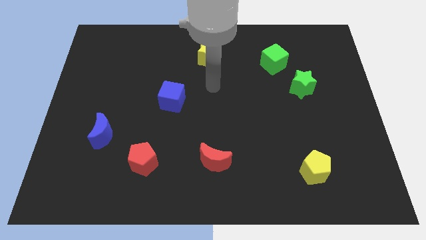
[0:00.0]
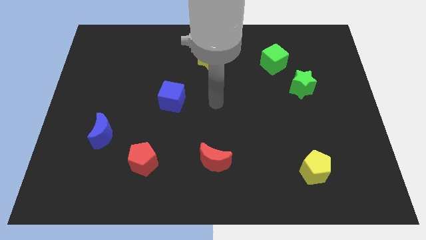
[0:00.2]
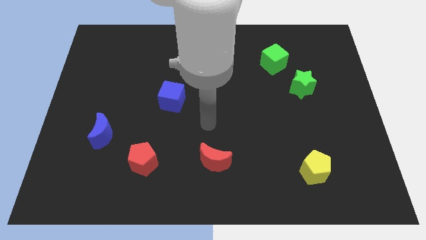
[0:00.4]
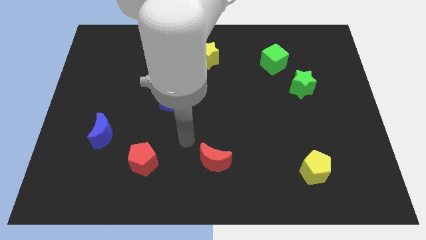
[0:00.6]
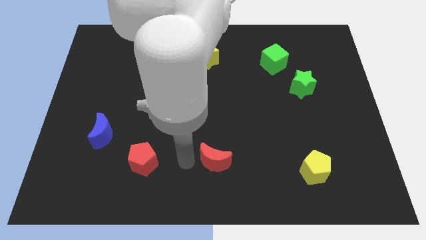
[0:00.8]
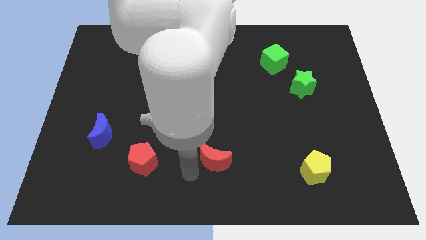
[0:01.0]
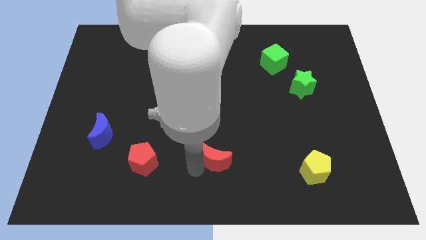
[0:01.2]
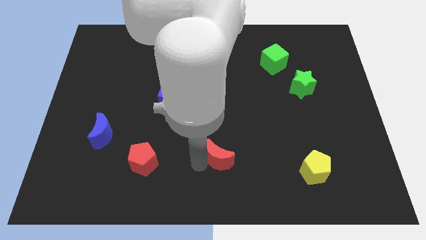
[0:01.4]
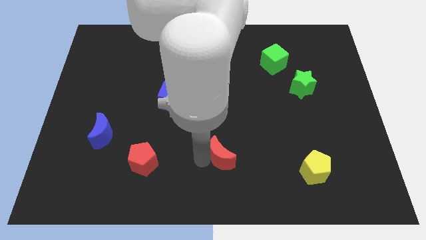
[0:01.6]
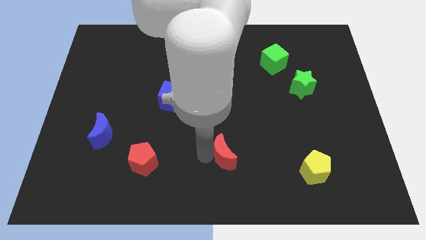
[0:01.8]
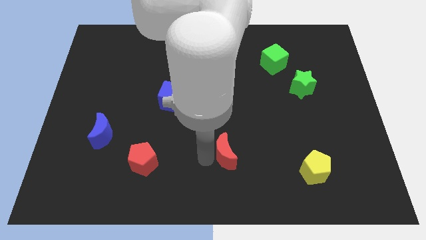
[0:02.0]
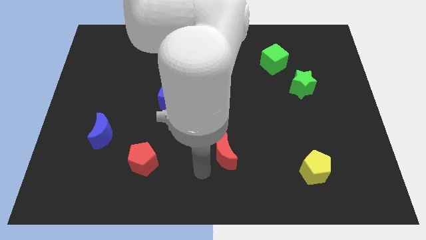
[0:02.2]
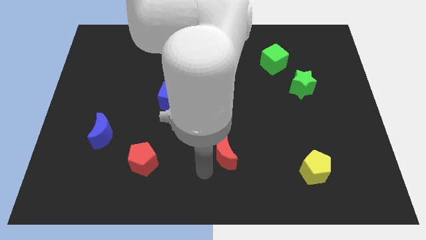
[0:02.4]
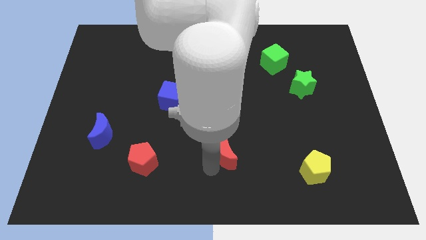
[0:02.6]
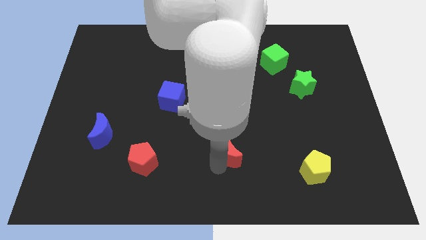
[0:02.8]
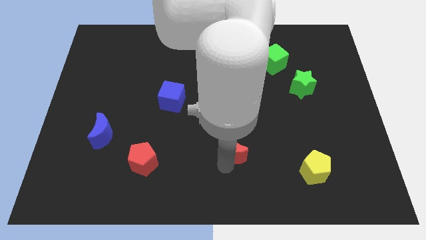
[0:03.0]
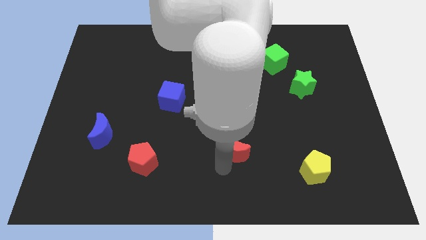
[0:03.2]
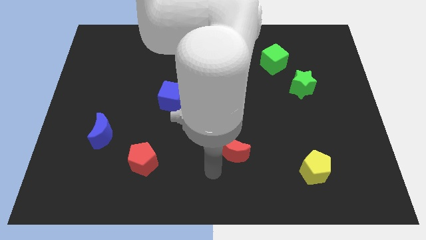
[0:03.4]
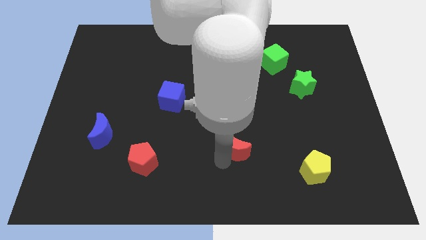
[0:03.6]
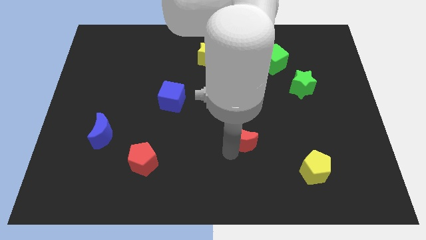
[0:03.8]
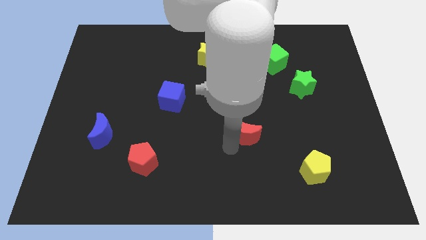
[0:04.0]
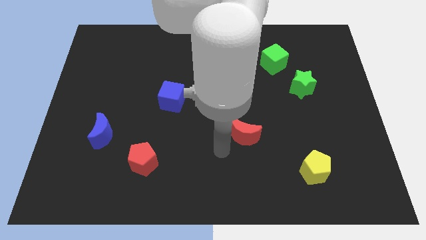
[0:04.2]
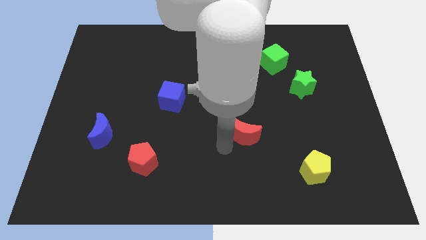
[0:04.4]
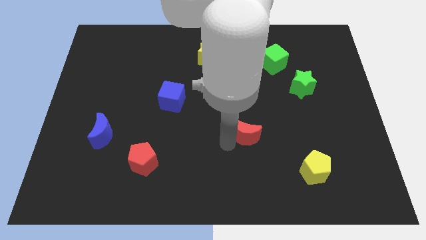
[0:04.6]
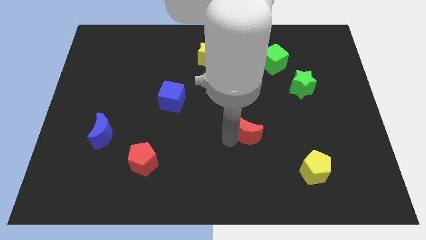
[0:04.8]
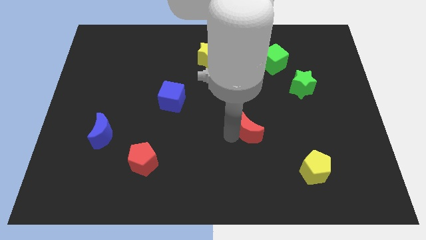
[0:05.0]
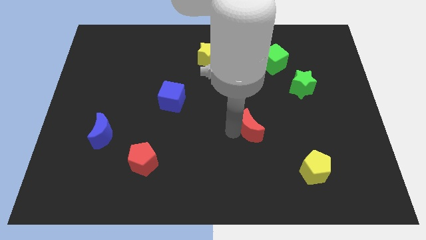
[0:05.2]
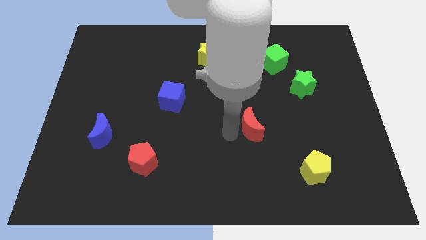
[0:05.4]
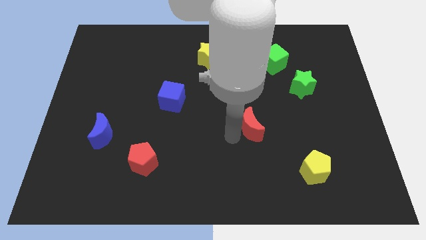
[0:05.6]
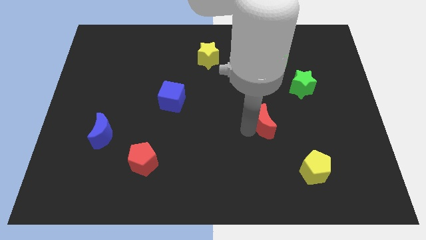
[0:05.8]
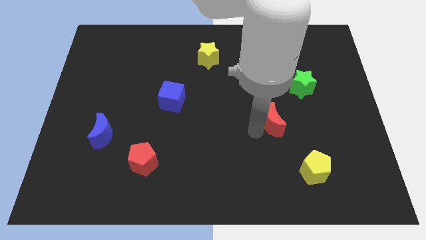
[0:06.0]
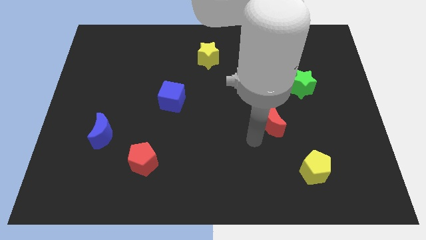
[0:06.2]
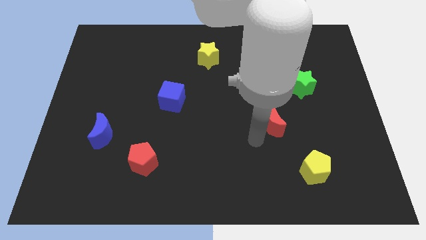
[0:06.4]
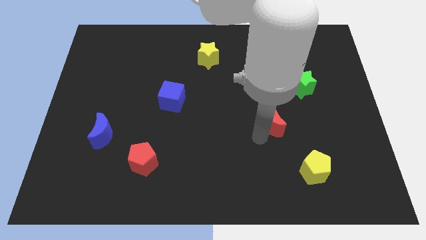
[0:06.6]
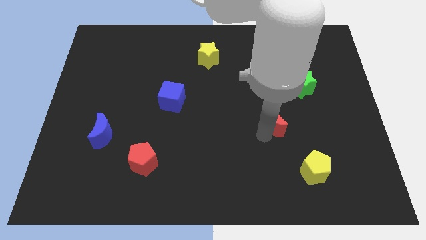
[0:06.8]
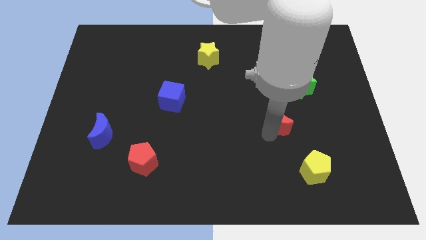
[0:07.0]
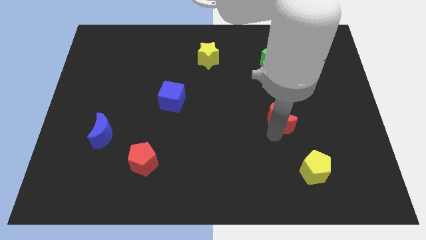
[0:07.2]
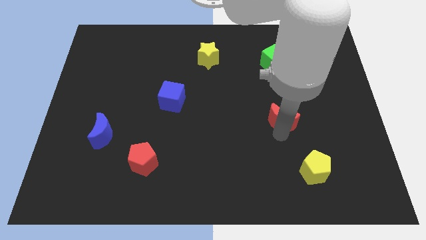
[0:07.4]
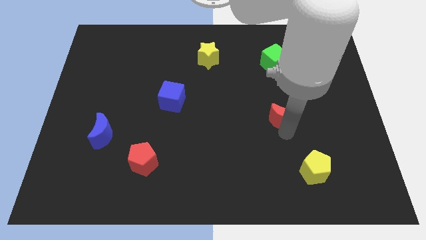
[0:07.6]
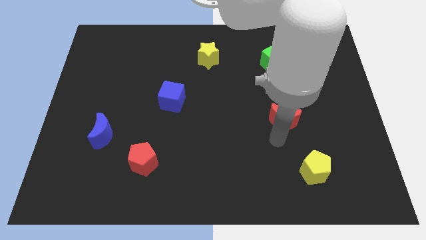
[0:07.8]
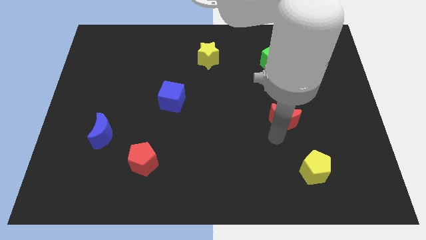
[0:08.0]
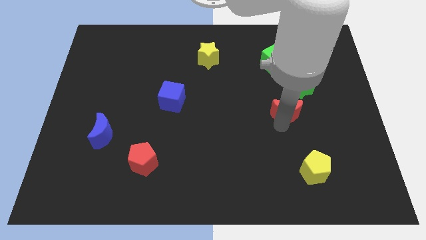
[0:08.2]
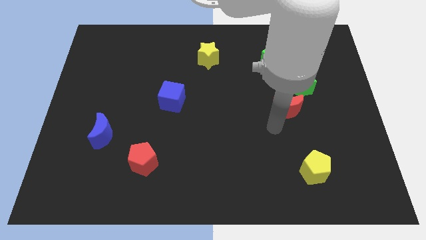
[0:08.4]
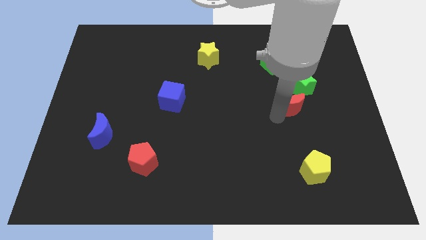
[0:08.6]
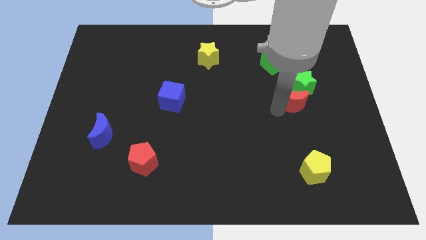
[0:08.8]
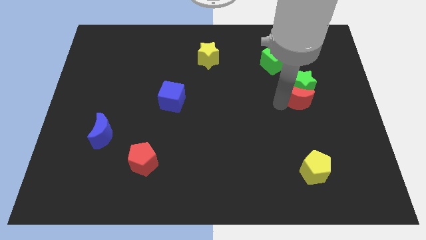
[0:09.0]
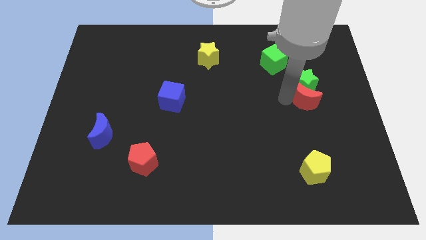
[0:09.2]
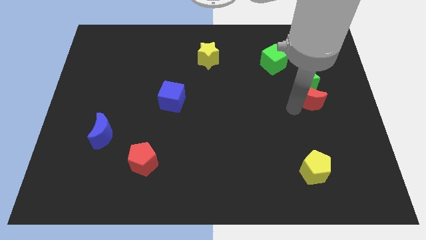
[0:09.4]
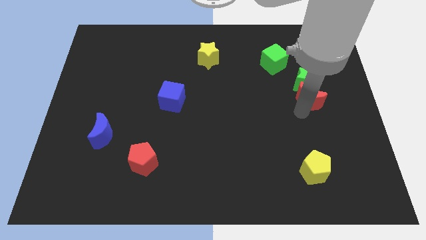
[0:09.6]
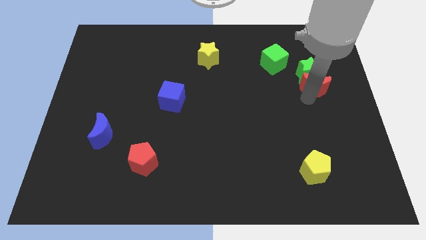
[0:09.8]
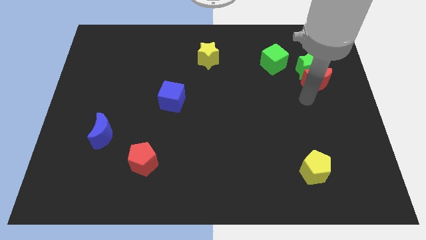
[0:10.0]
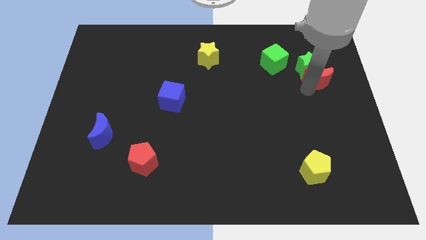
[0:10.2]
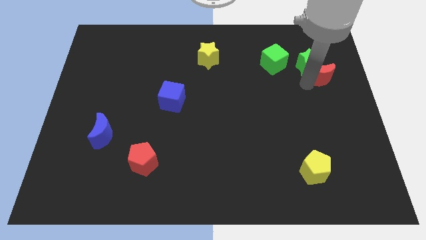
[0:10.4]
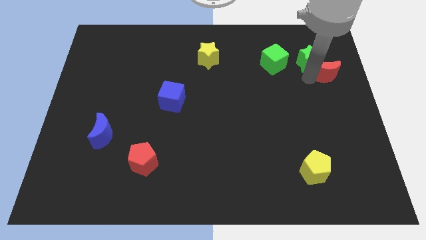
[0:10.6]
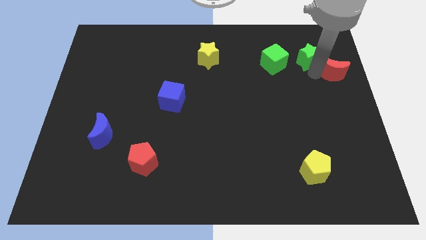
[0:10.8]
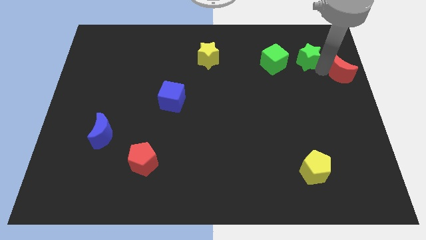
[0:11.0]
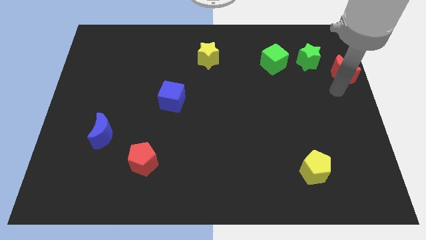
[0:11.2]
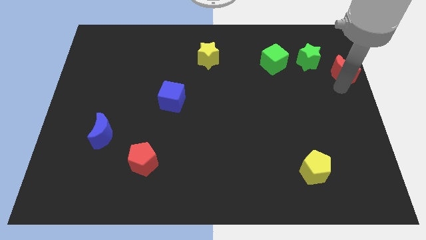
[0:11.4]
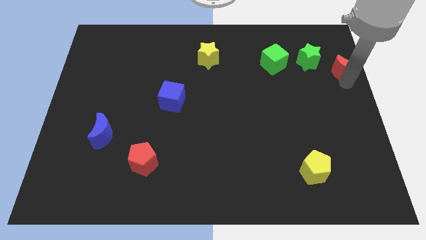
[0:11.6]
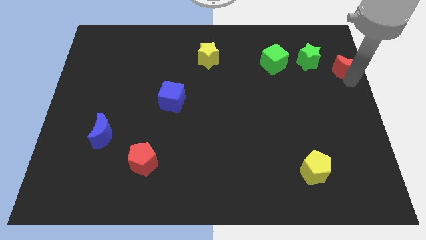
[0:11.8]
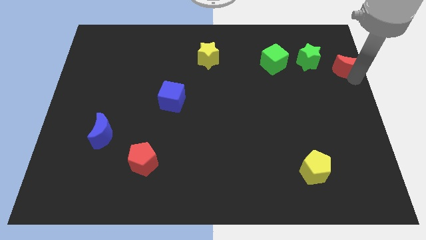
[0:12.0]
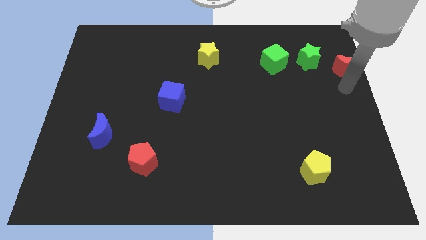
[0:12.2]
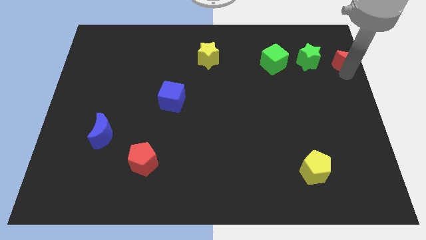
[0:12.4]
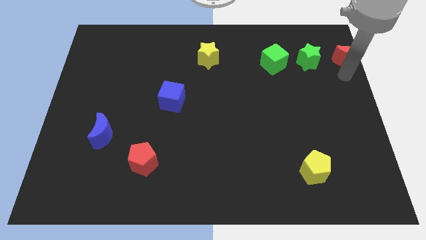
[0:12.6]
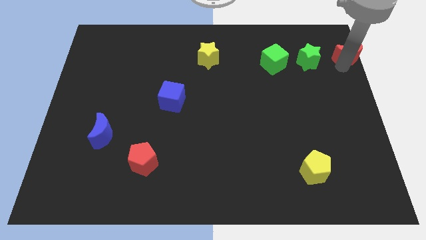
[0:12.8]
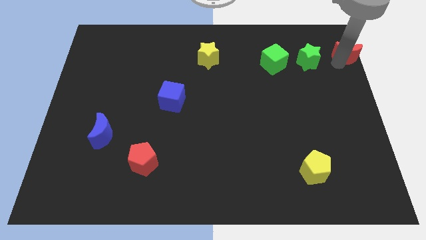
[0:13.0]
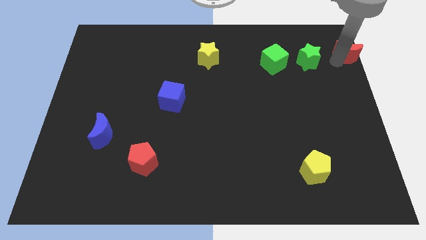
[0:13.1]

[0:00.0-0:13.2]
put the red moon to the top right corner
